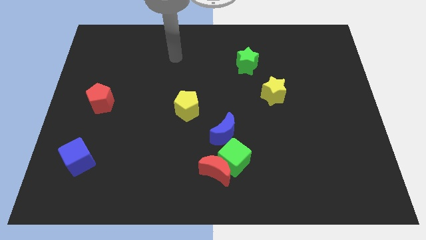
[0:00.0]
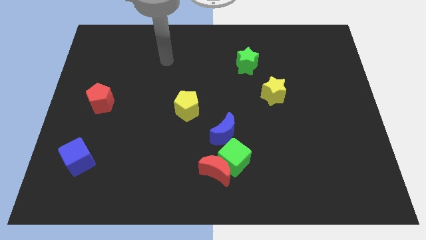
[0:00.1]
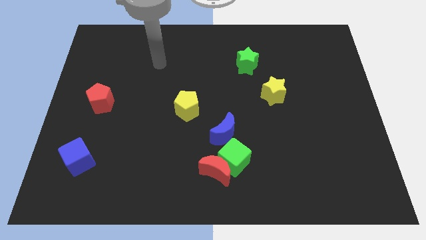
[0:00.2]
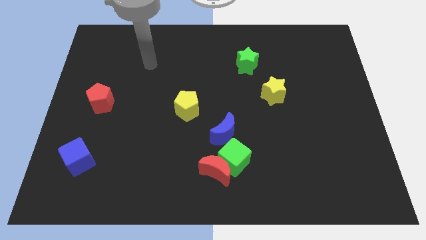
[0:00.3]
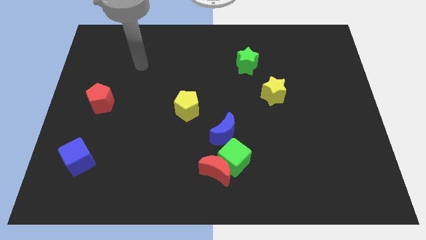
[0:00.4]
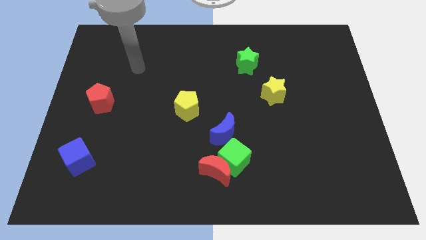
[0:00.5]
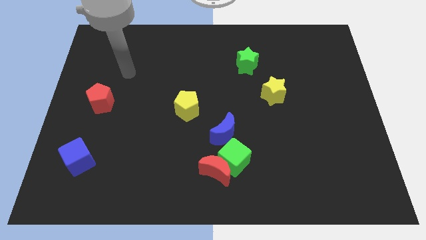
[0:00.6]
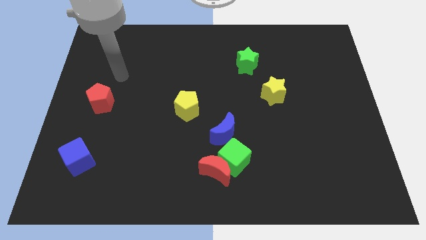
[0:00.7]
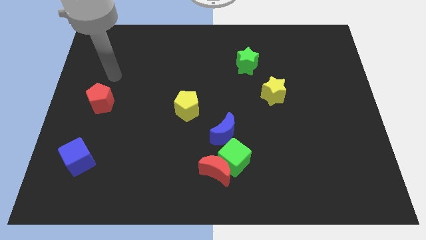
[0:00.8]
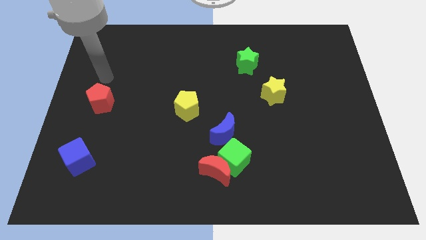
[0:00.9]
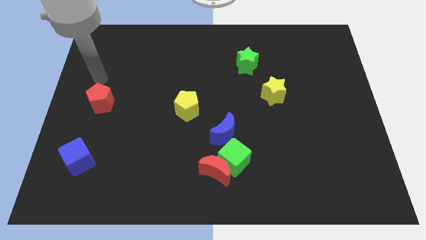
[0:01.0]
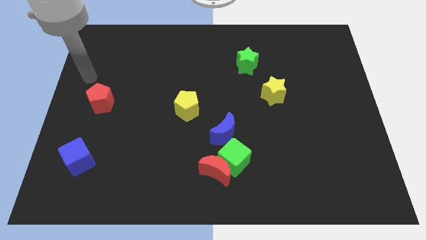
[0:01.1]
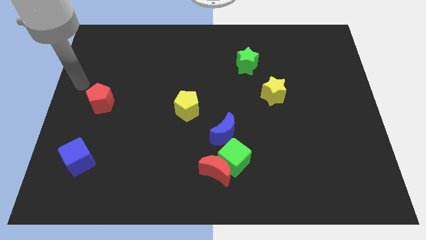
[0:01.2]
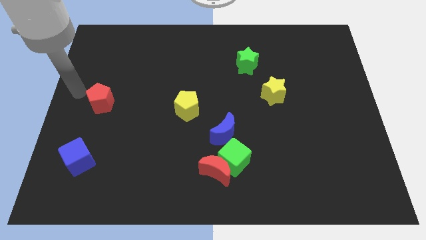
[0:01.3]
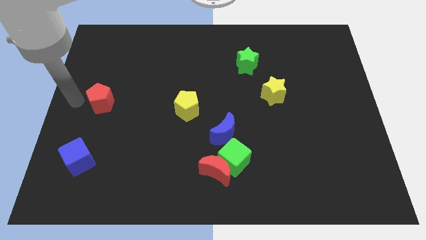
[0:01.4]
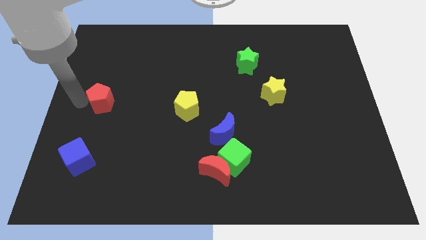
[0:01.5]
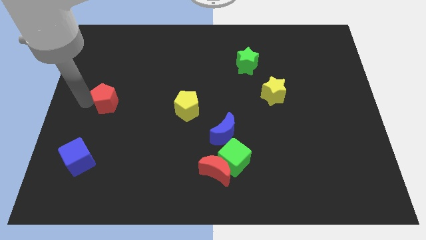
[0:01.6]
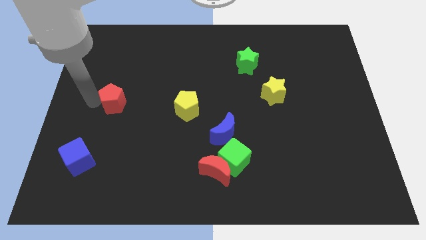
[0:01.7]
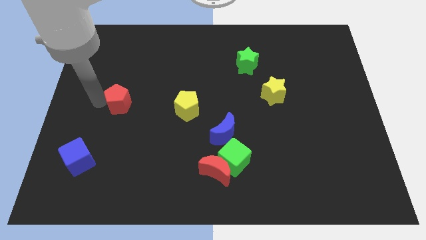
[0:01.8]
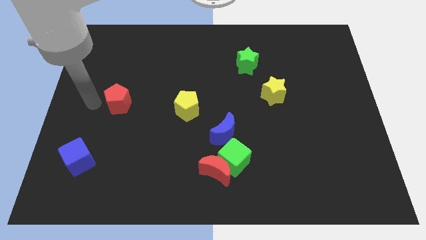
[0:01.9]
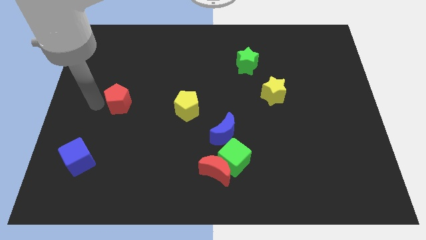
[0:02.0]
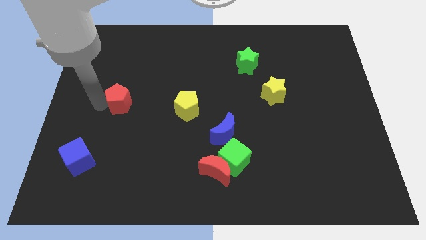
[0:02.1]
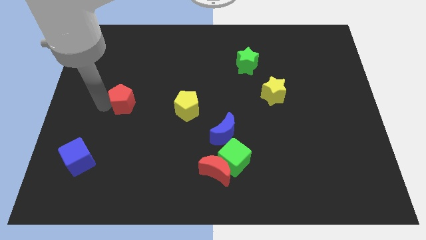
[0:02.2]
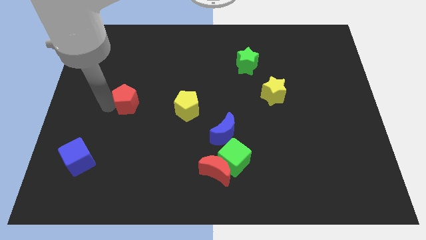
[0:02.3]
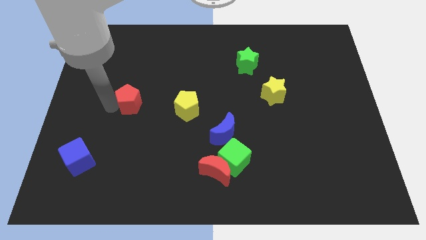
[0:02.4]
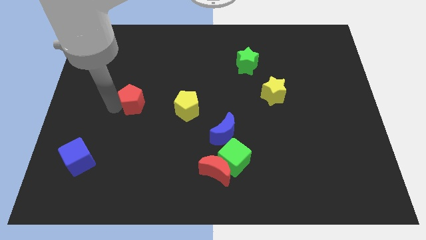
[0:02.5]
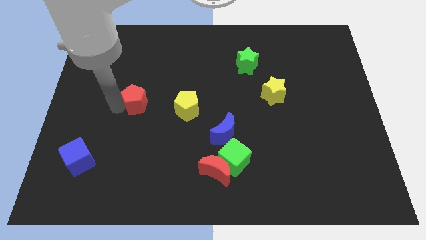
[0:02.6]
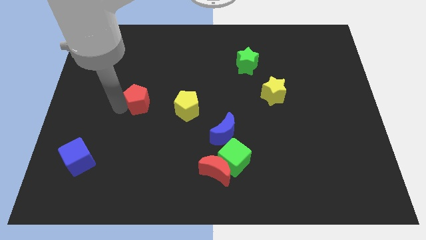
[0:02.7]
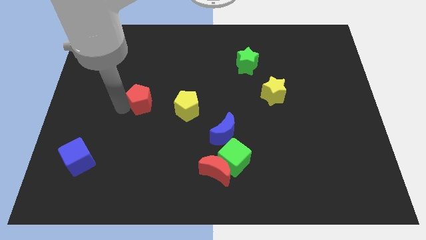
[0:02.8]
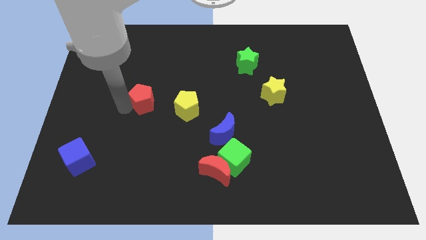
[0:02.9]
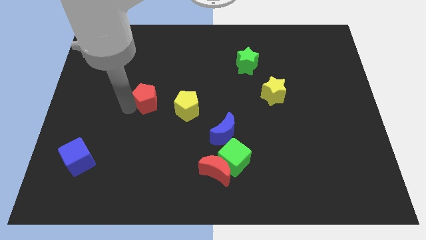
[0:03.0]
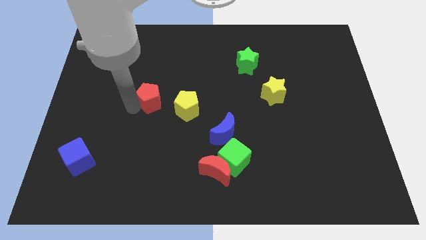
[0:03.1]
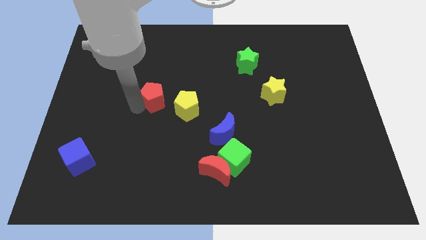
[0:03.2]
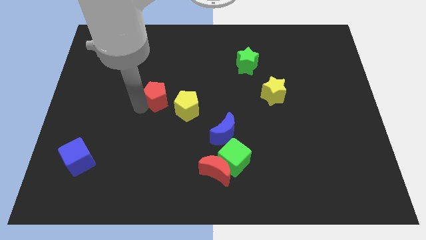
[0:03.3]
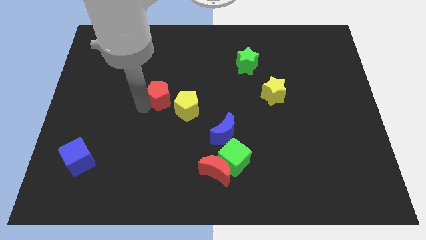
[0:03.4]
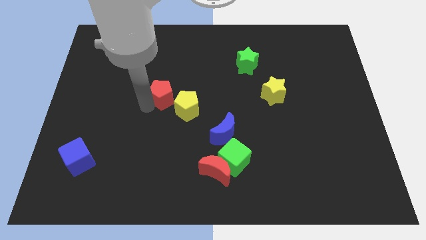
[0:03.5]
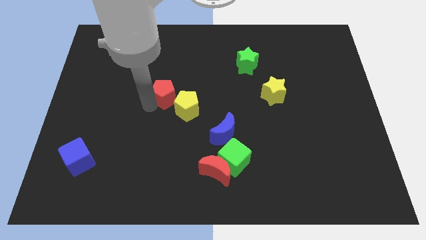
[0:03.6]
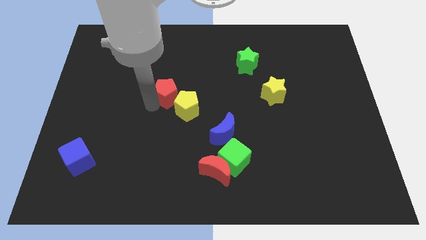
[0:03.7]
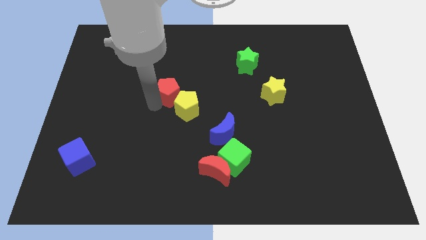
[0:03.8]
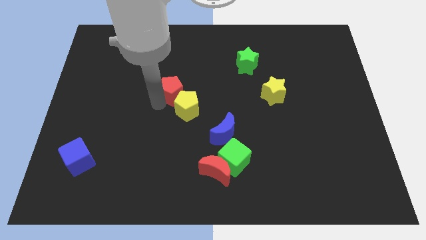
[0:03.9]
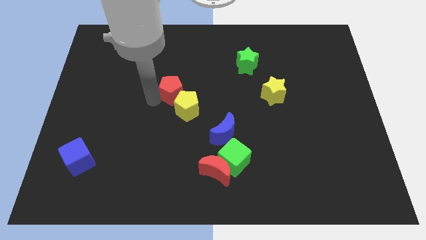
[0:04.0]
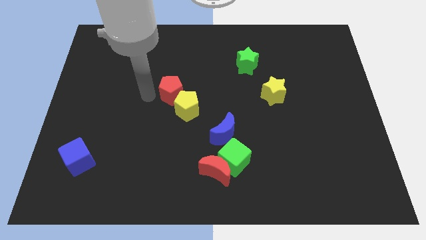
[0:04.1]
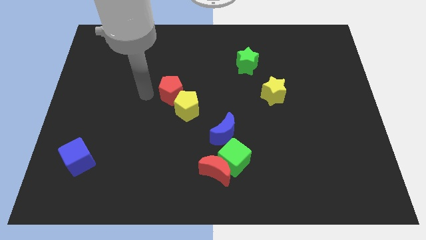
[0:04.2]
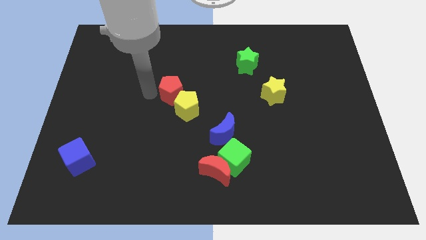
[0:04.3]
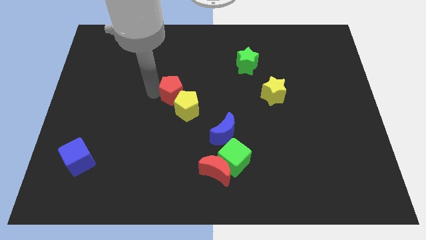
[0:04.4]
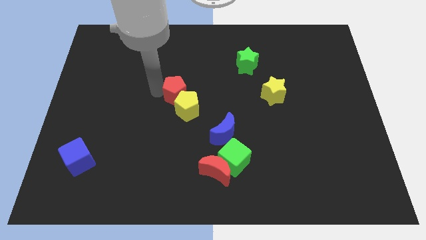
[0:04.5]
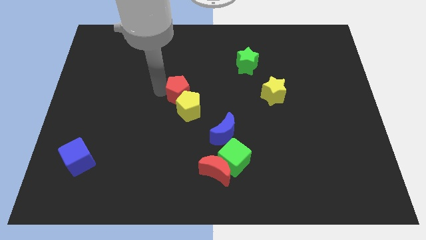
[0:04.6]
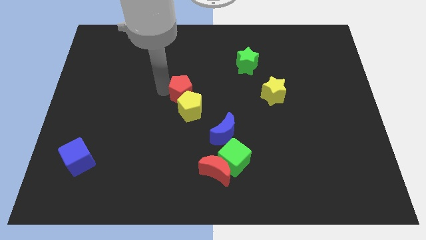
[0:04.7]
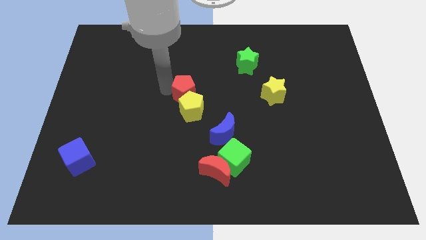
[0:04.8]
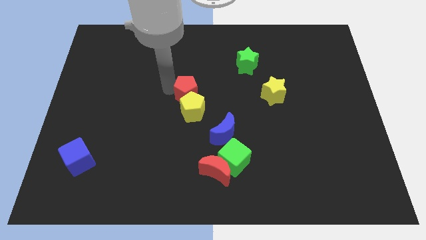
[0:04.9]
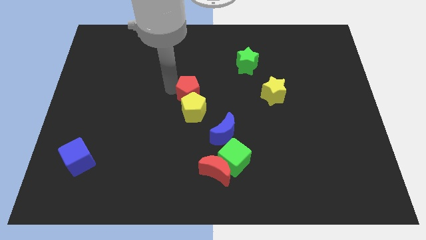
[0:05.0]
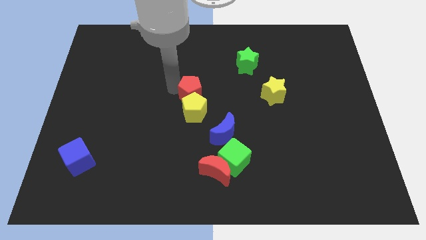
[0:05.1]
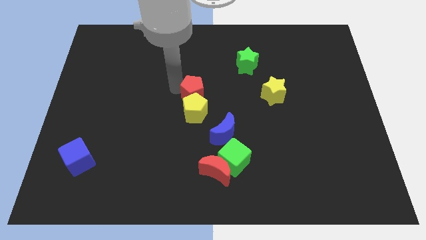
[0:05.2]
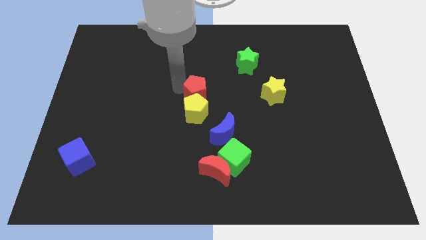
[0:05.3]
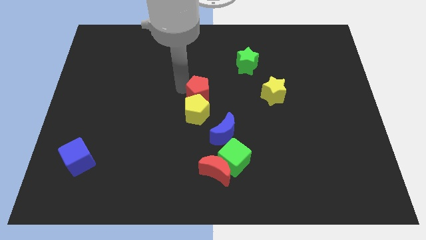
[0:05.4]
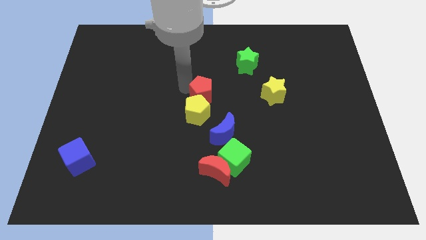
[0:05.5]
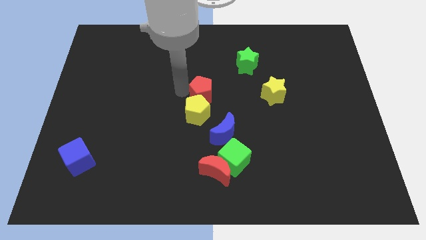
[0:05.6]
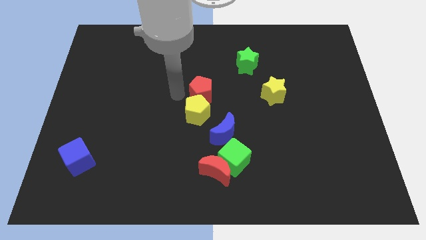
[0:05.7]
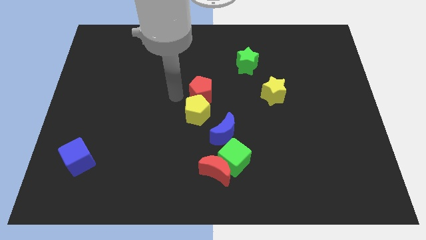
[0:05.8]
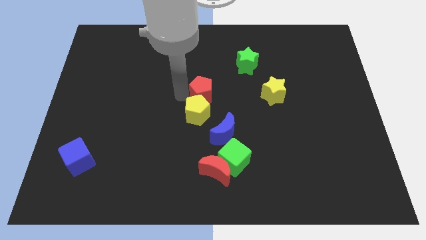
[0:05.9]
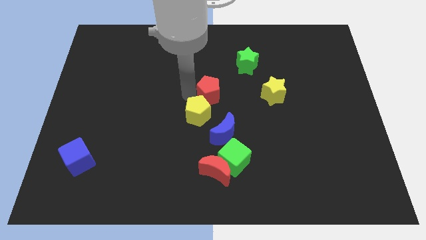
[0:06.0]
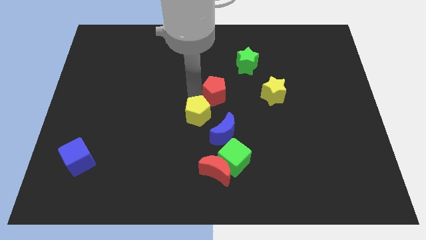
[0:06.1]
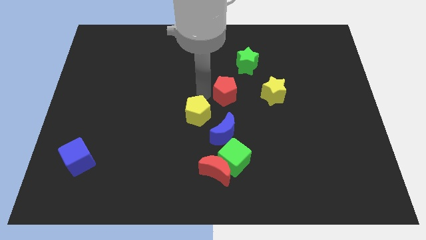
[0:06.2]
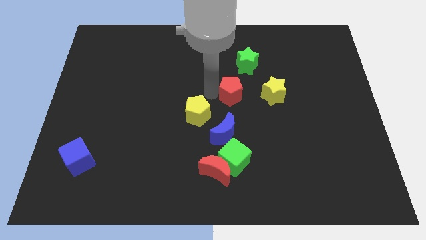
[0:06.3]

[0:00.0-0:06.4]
slide the red pentagon to the bottom of the green star
